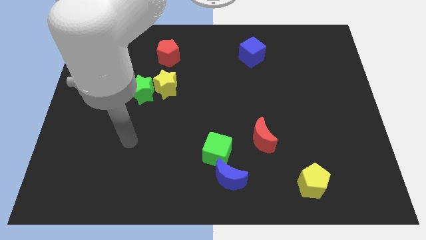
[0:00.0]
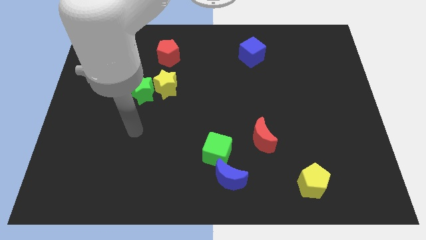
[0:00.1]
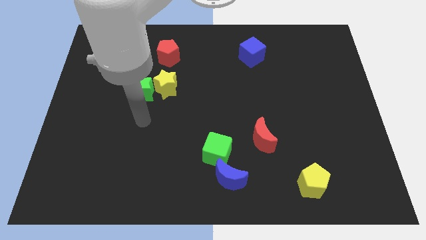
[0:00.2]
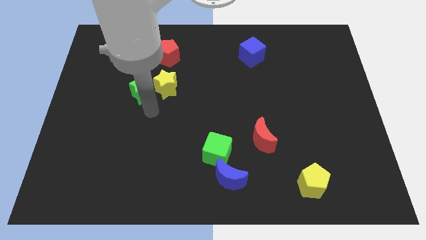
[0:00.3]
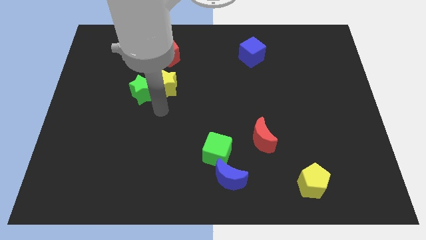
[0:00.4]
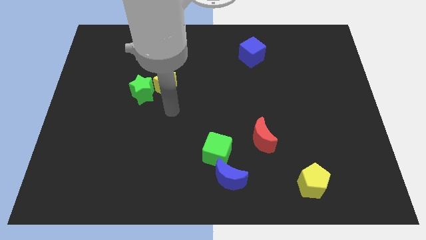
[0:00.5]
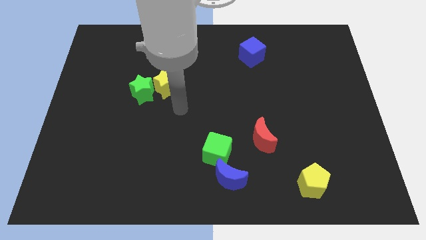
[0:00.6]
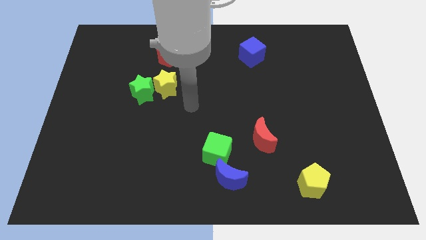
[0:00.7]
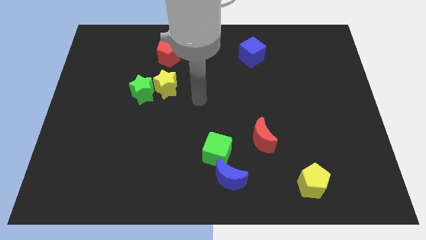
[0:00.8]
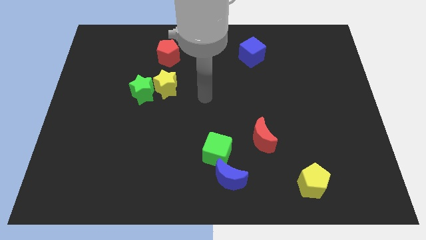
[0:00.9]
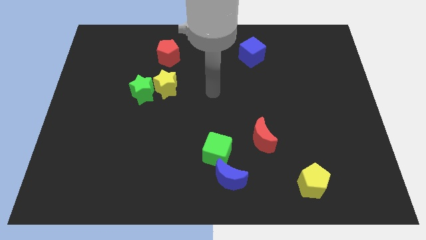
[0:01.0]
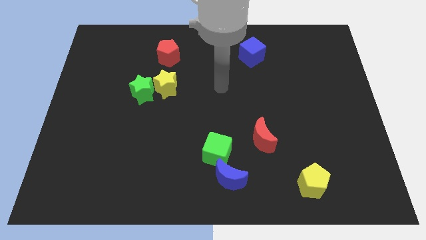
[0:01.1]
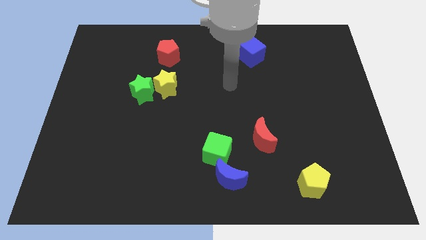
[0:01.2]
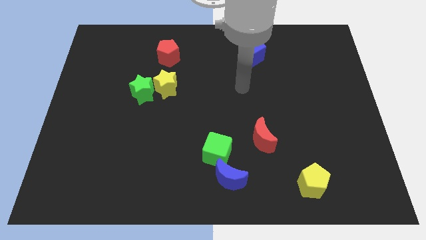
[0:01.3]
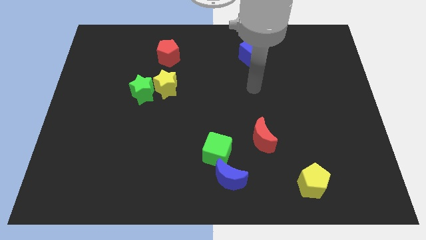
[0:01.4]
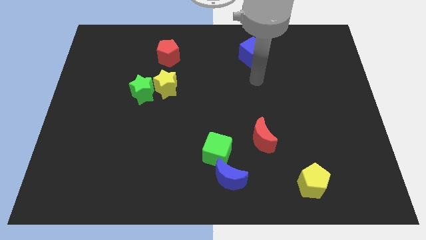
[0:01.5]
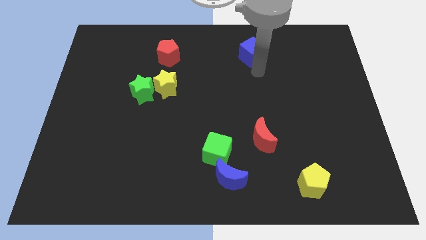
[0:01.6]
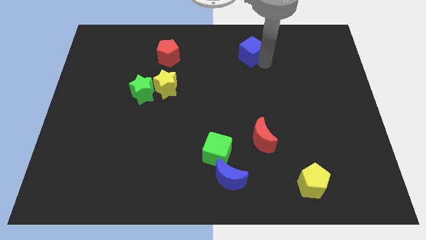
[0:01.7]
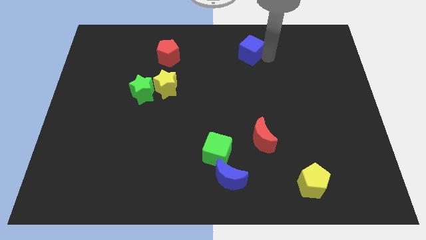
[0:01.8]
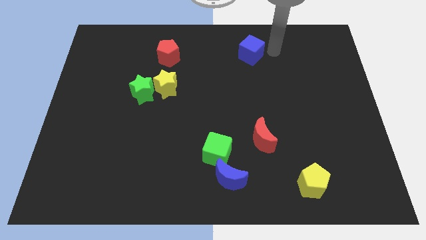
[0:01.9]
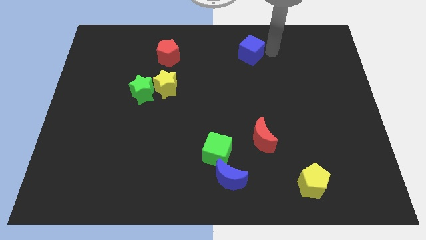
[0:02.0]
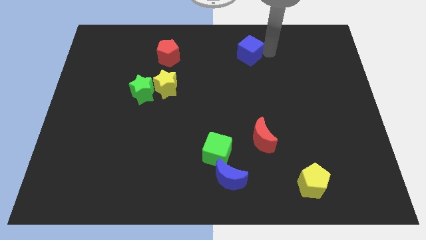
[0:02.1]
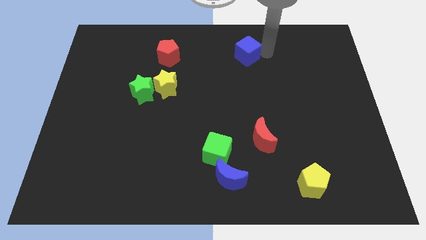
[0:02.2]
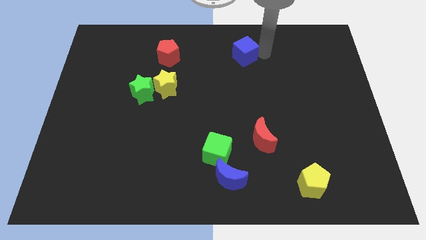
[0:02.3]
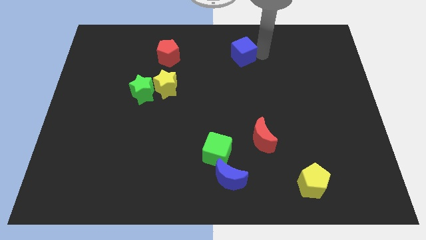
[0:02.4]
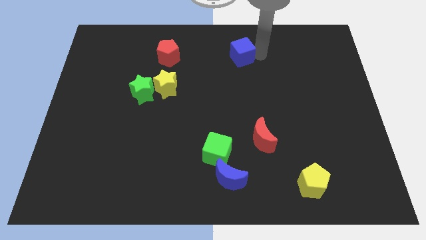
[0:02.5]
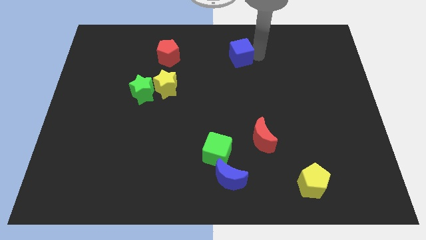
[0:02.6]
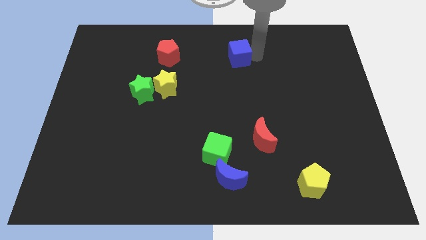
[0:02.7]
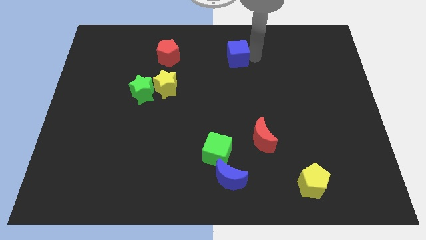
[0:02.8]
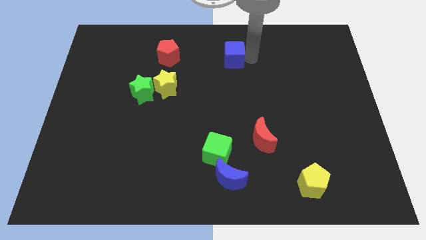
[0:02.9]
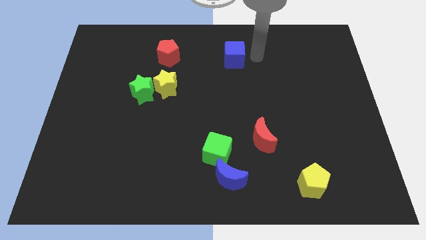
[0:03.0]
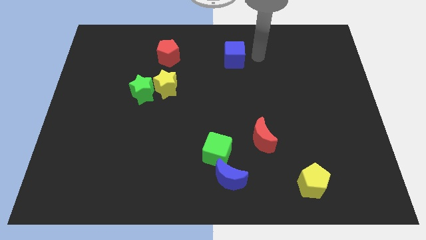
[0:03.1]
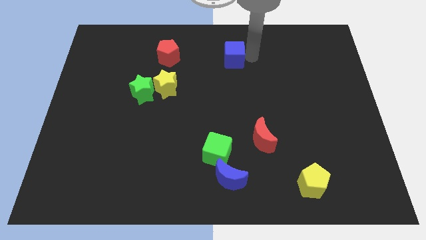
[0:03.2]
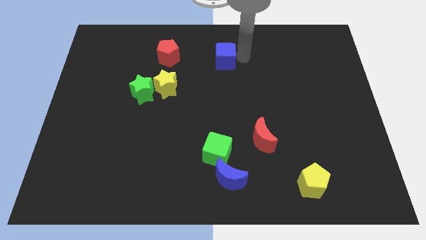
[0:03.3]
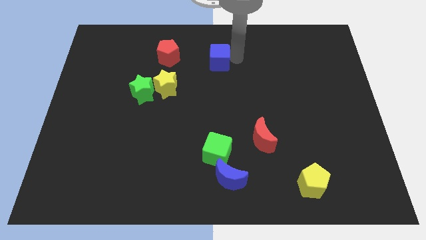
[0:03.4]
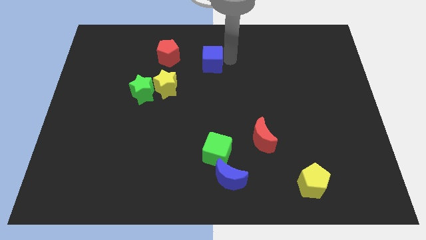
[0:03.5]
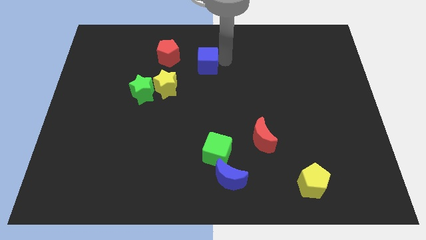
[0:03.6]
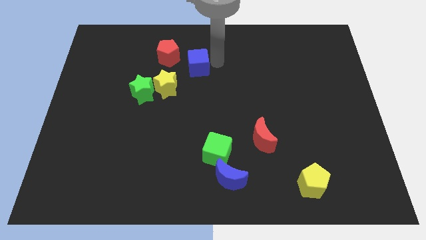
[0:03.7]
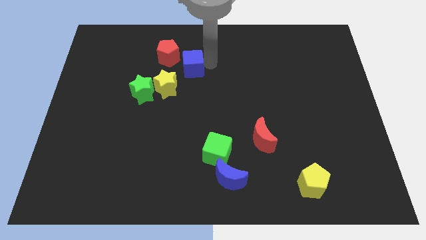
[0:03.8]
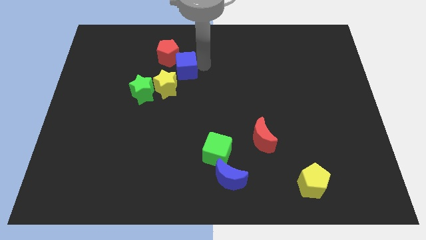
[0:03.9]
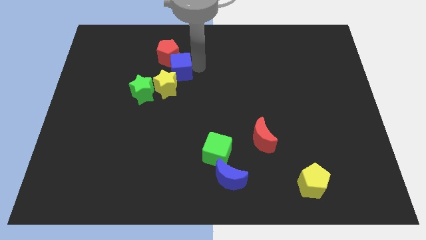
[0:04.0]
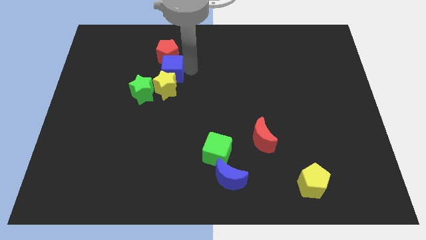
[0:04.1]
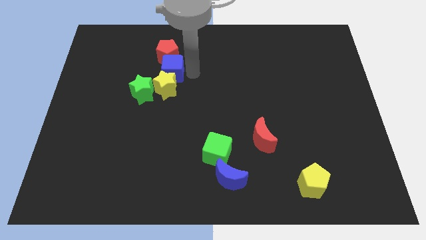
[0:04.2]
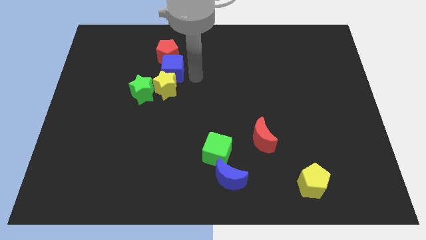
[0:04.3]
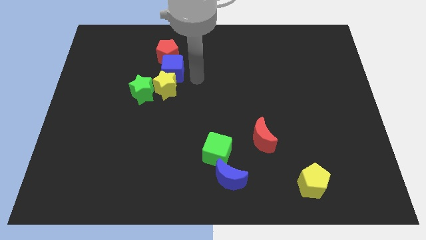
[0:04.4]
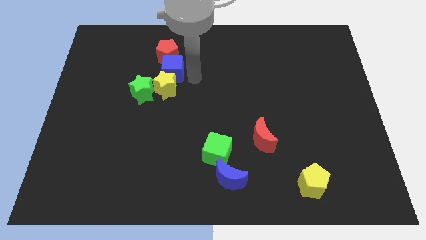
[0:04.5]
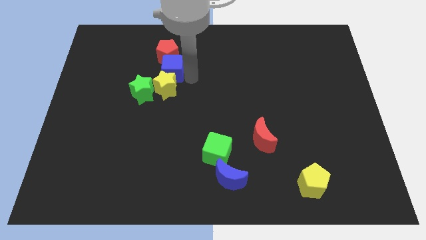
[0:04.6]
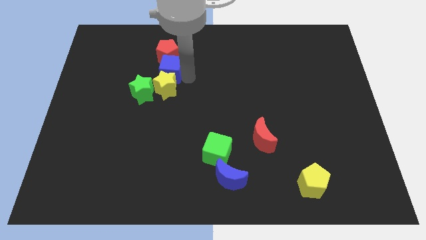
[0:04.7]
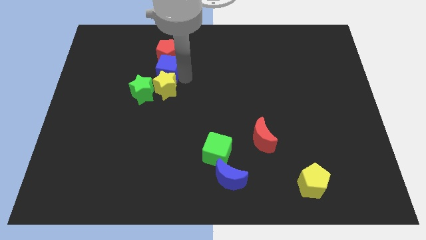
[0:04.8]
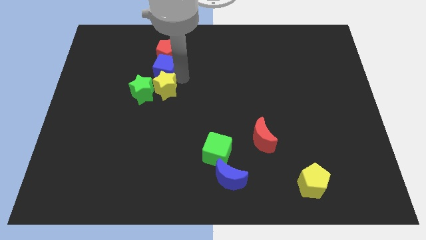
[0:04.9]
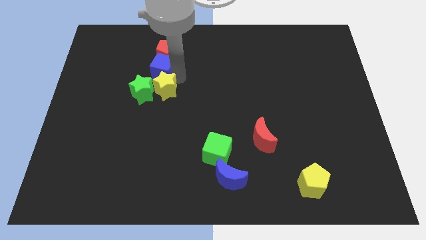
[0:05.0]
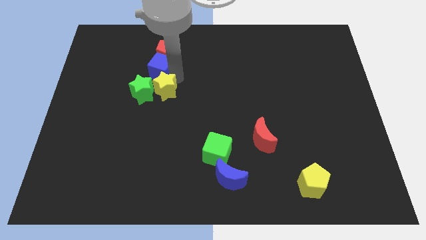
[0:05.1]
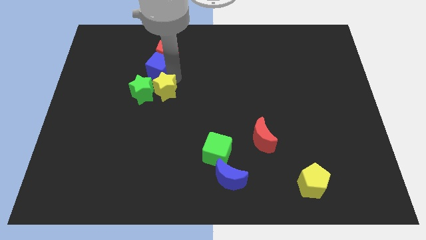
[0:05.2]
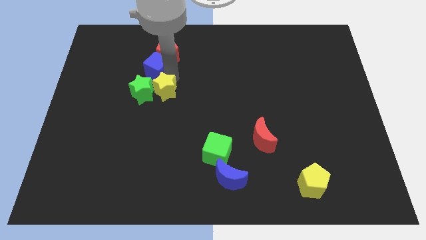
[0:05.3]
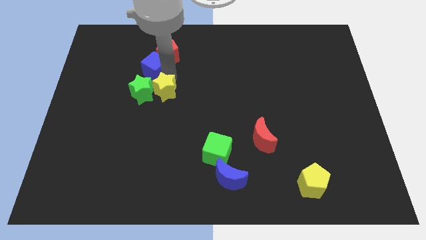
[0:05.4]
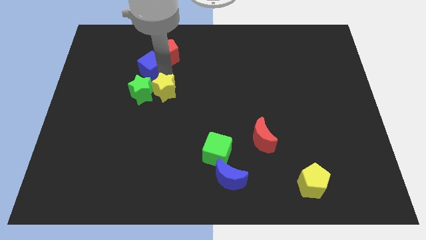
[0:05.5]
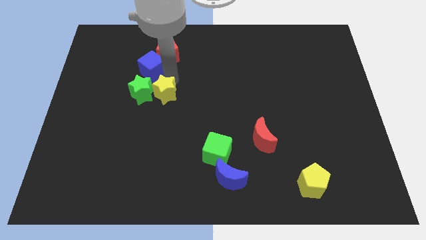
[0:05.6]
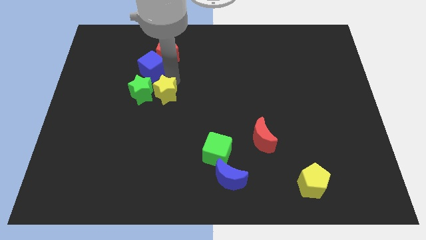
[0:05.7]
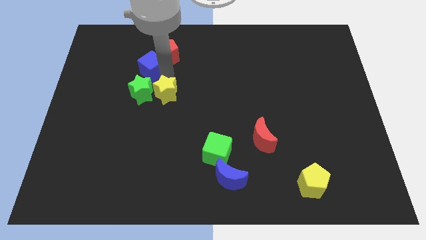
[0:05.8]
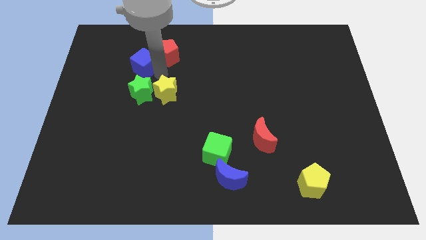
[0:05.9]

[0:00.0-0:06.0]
put the blue cube left of the red pentagon

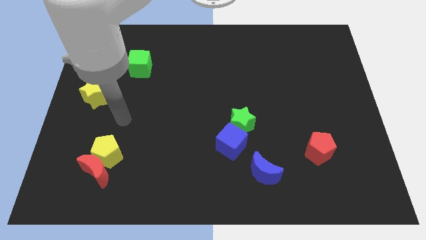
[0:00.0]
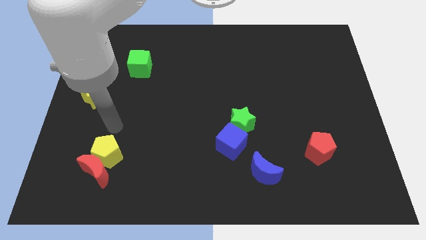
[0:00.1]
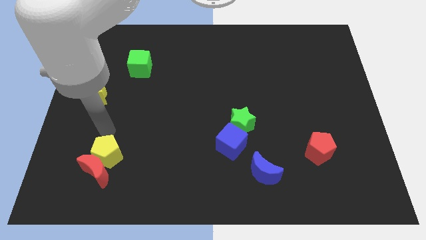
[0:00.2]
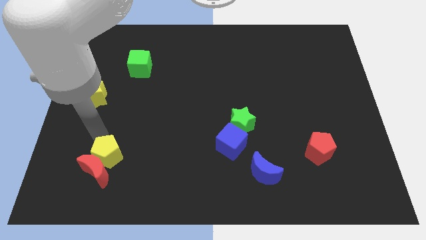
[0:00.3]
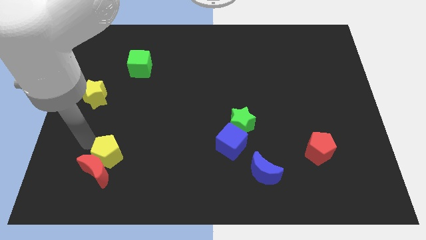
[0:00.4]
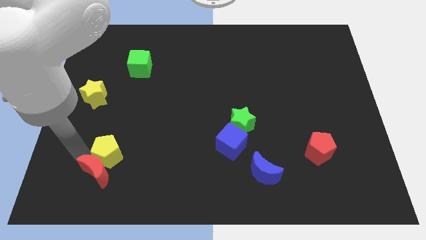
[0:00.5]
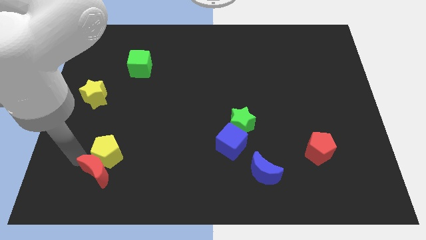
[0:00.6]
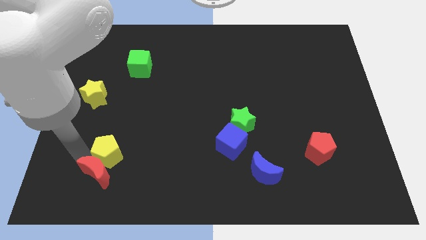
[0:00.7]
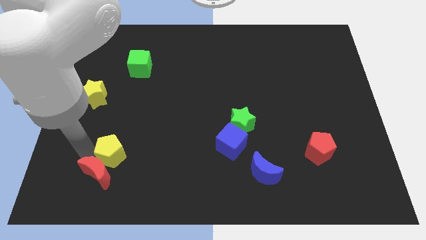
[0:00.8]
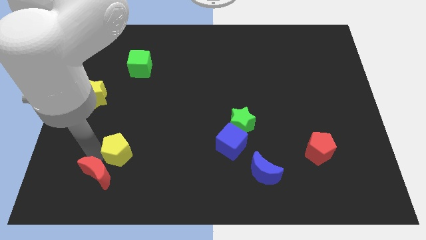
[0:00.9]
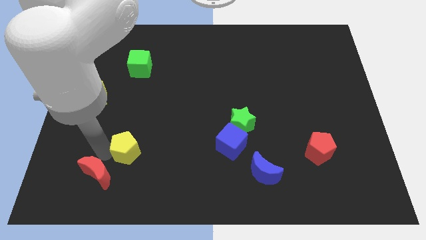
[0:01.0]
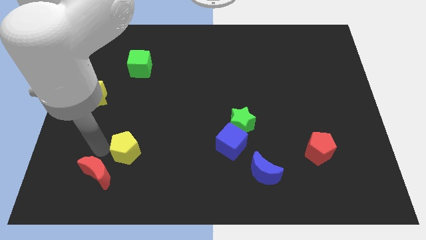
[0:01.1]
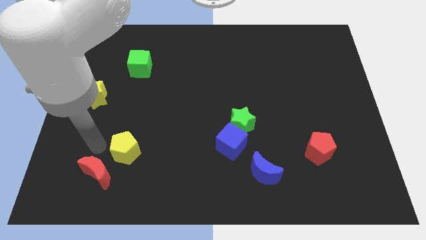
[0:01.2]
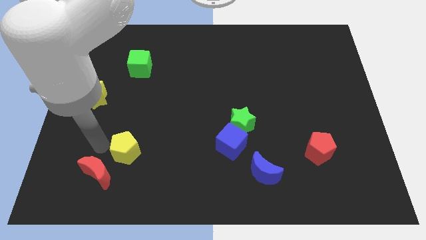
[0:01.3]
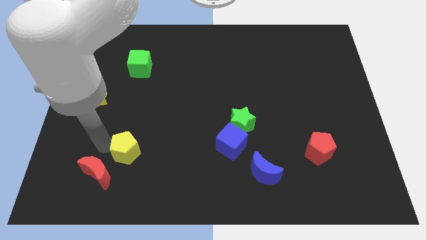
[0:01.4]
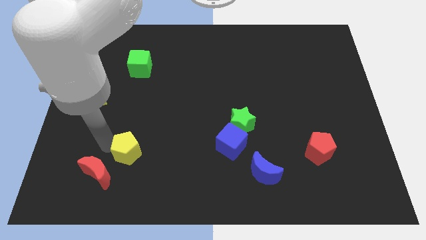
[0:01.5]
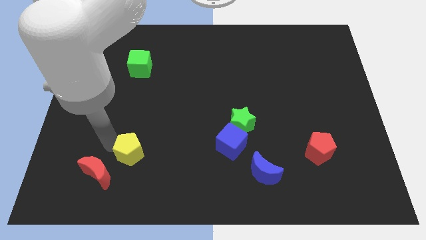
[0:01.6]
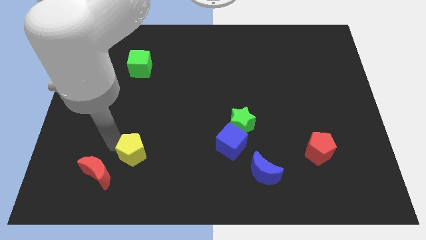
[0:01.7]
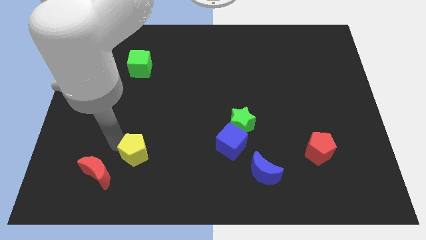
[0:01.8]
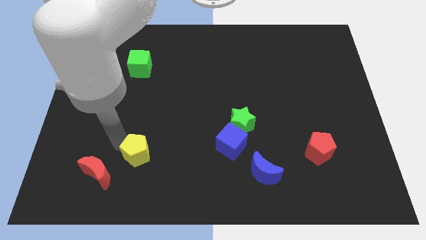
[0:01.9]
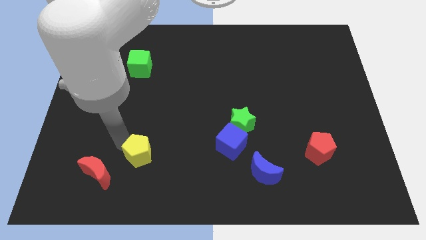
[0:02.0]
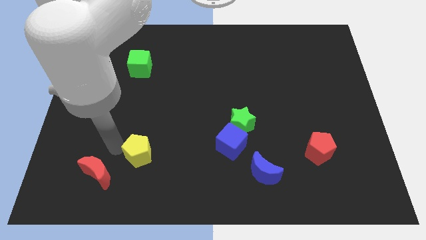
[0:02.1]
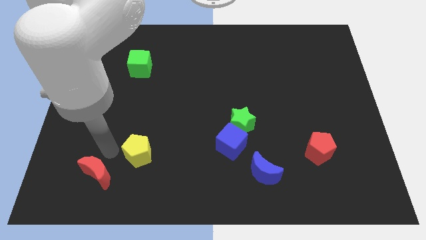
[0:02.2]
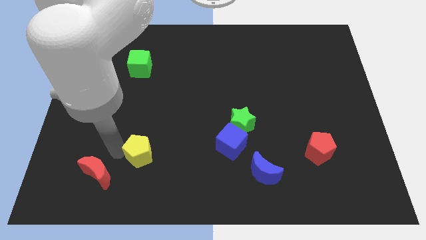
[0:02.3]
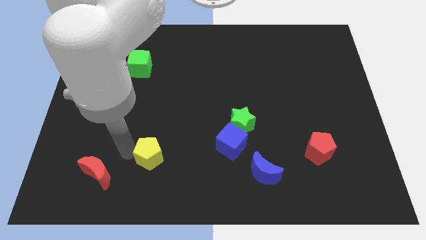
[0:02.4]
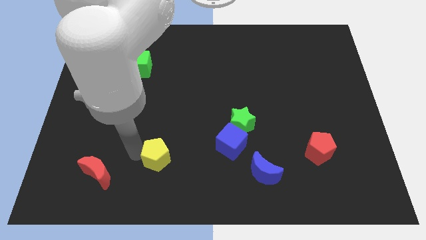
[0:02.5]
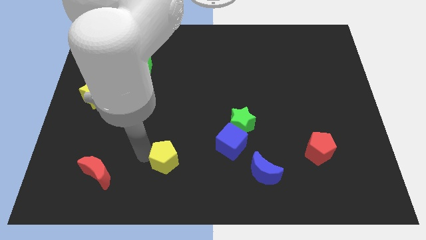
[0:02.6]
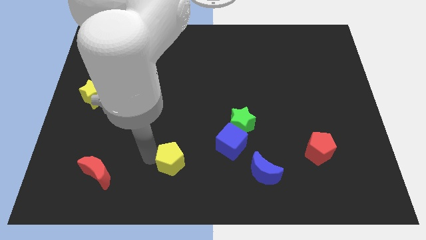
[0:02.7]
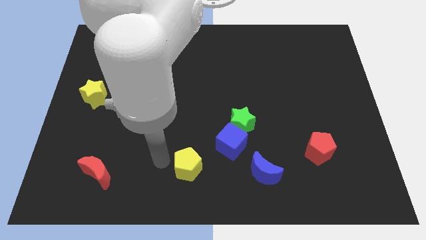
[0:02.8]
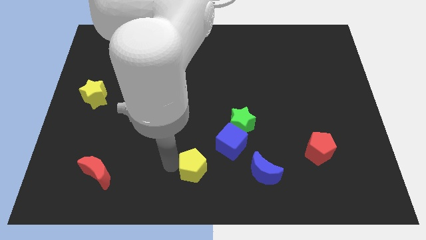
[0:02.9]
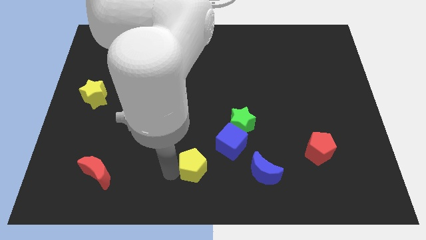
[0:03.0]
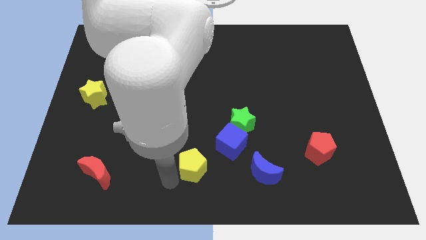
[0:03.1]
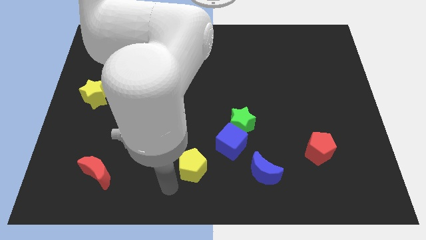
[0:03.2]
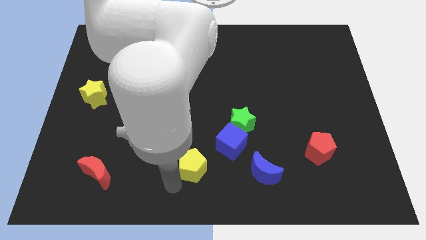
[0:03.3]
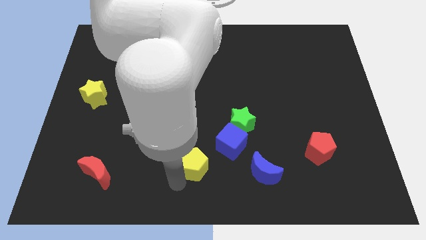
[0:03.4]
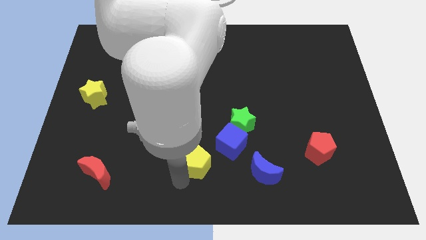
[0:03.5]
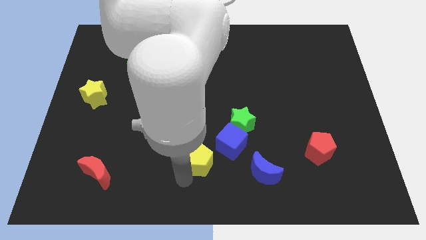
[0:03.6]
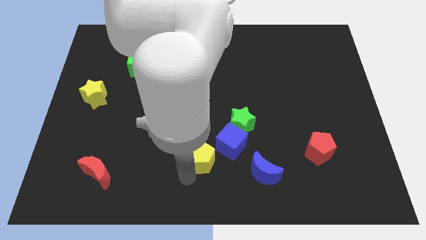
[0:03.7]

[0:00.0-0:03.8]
move the yellow pentagon to the bottom left side of the green star
